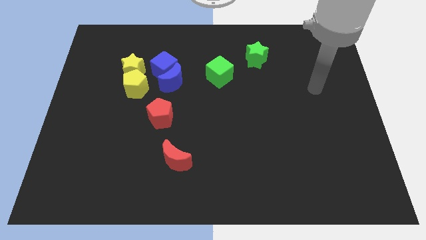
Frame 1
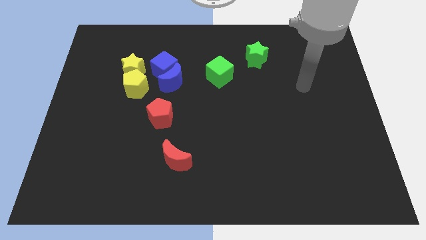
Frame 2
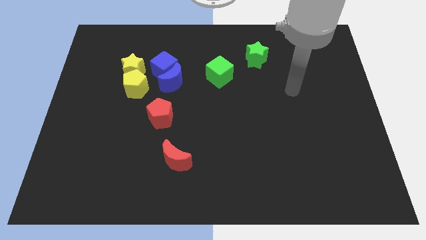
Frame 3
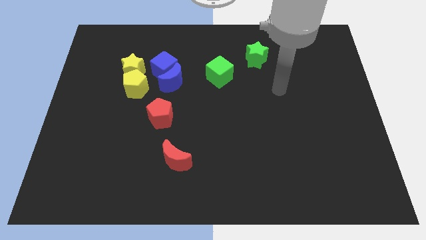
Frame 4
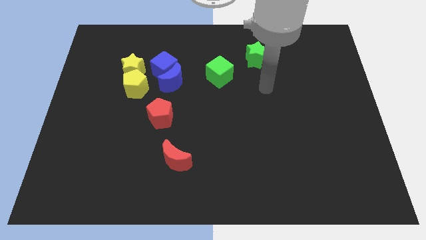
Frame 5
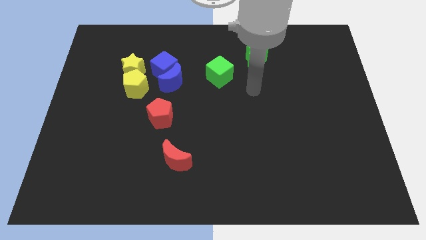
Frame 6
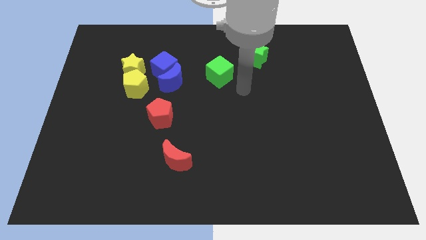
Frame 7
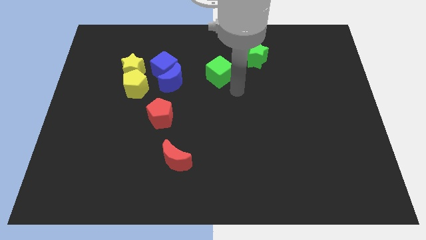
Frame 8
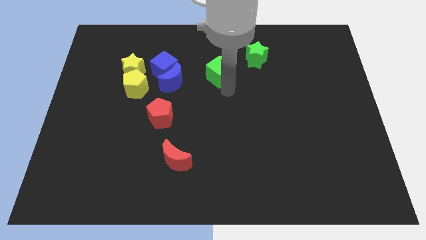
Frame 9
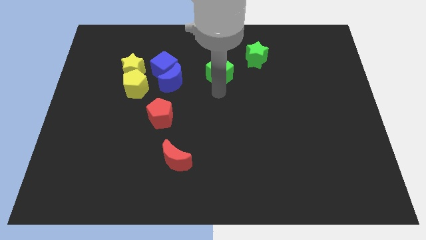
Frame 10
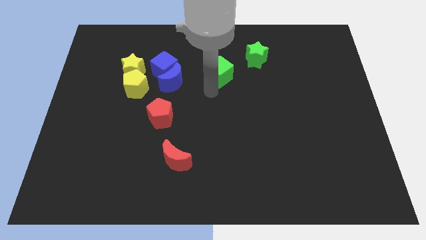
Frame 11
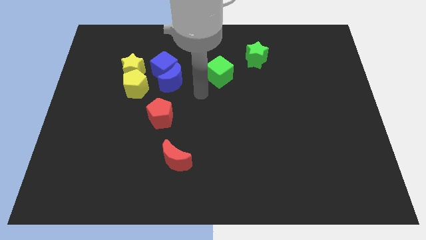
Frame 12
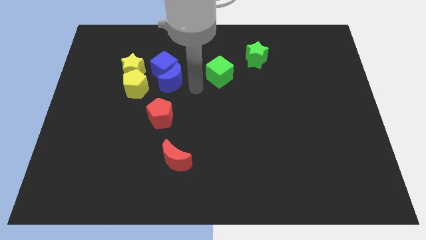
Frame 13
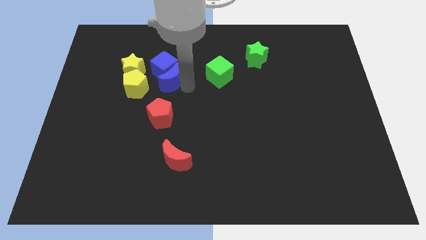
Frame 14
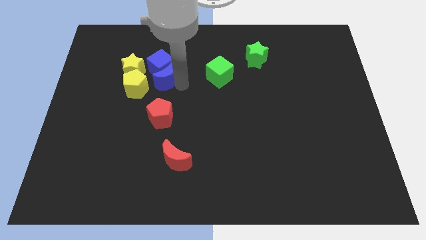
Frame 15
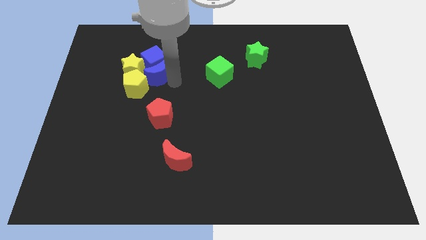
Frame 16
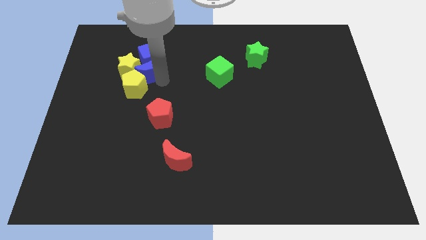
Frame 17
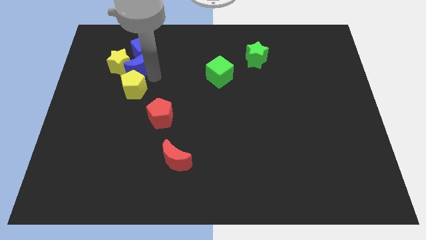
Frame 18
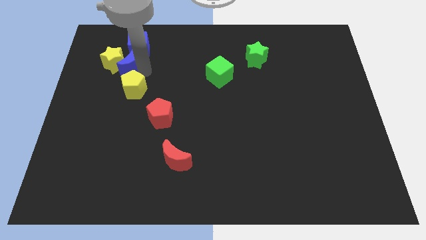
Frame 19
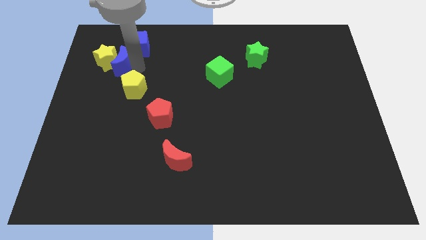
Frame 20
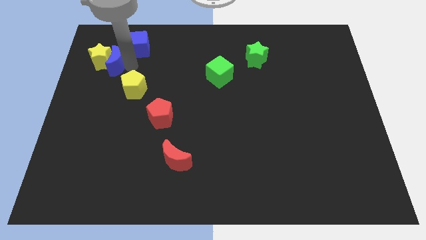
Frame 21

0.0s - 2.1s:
separate the yellow star from the yellow pentagon and blue cube

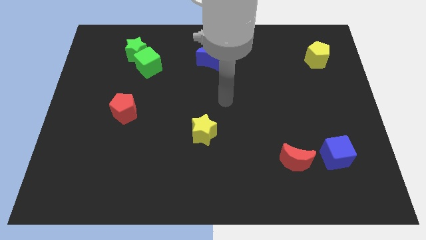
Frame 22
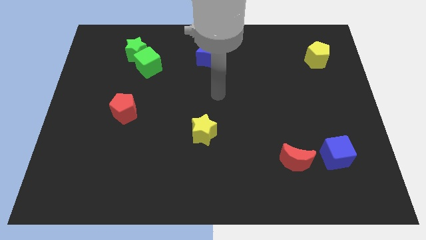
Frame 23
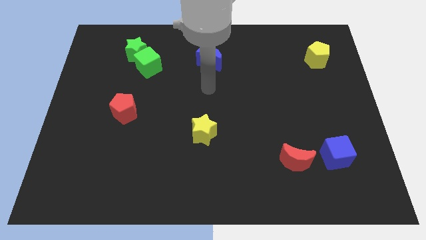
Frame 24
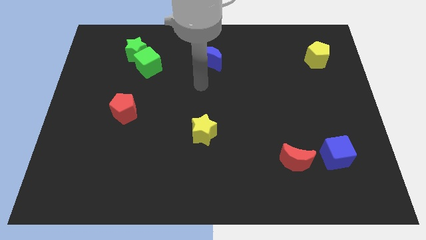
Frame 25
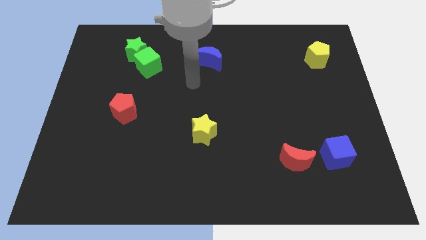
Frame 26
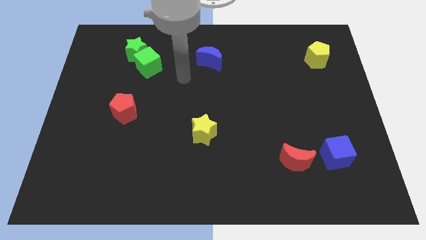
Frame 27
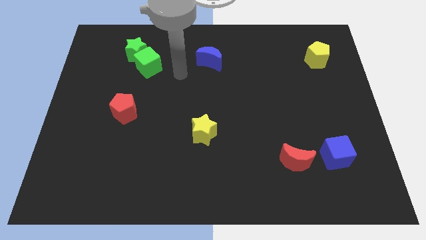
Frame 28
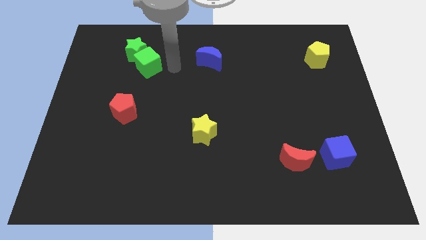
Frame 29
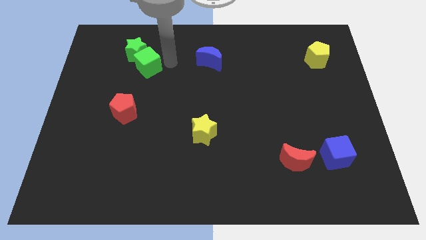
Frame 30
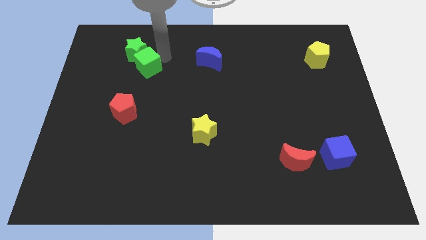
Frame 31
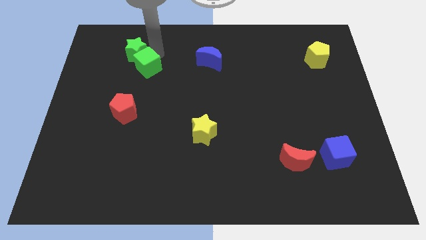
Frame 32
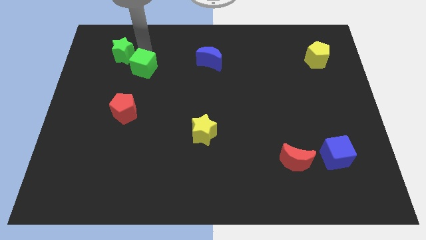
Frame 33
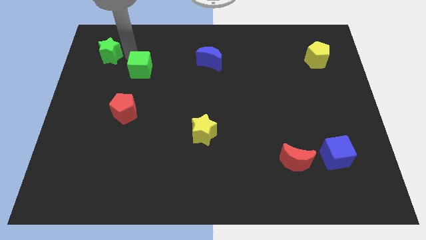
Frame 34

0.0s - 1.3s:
move the green cube away from the green star

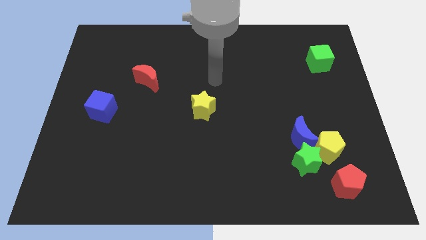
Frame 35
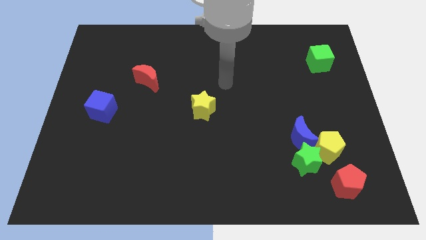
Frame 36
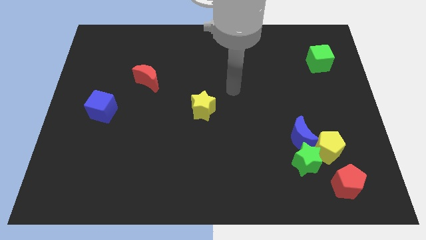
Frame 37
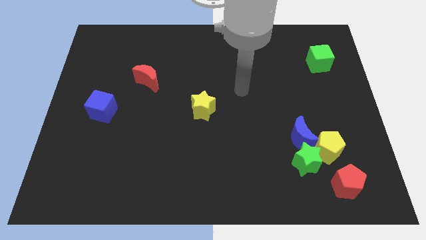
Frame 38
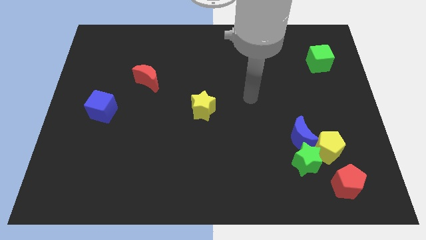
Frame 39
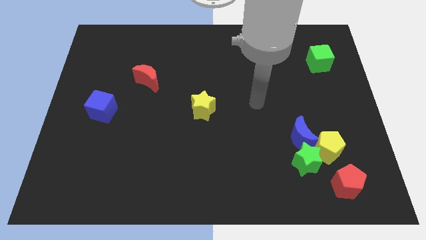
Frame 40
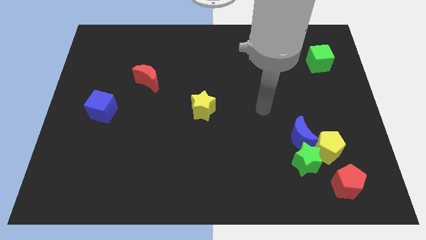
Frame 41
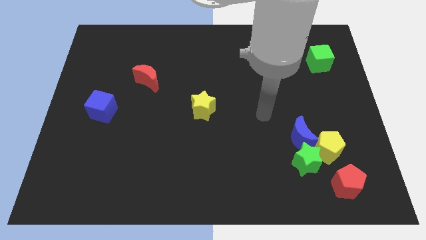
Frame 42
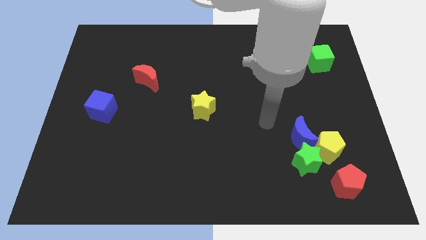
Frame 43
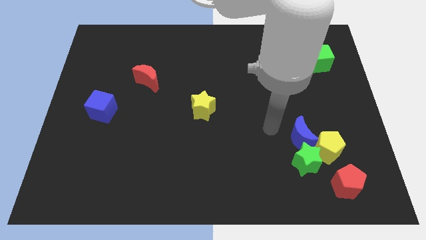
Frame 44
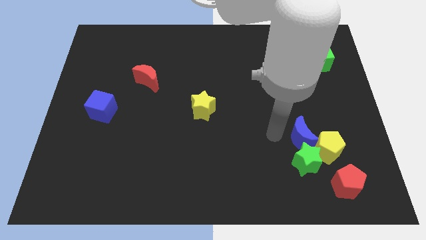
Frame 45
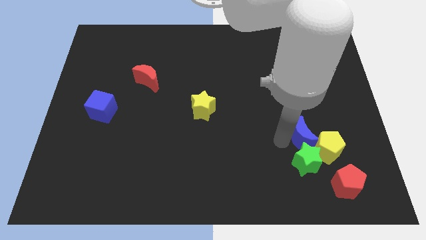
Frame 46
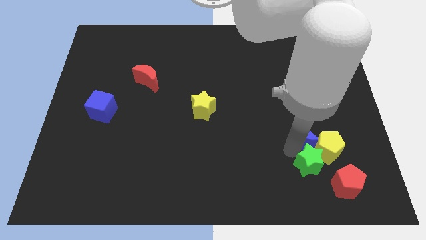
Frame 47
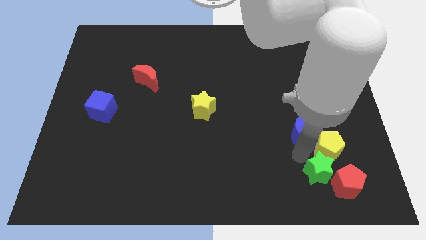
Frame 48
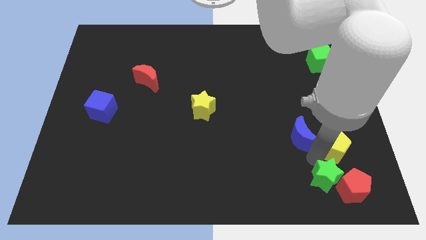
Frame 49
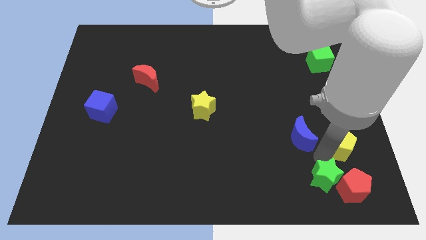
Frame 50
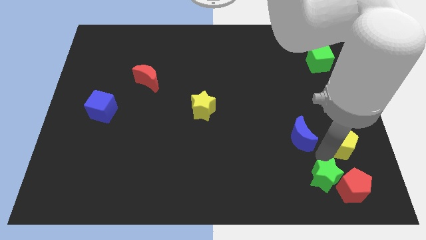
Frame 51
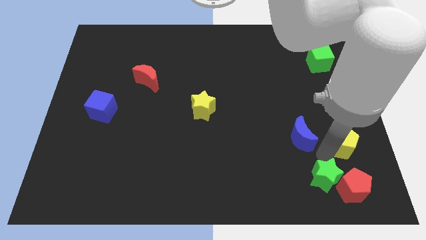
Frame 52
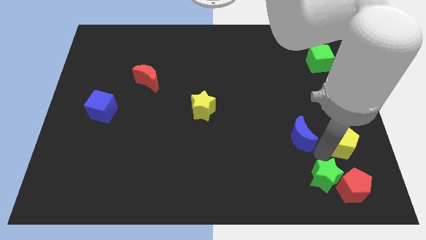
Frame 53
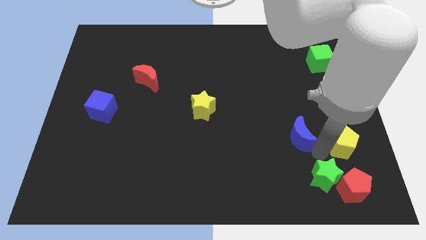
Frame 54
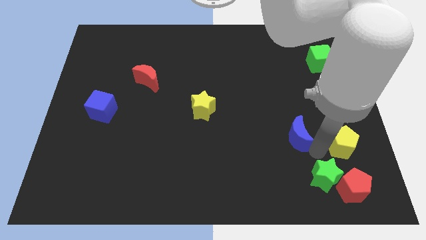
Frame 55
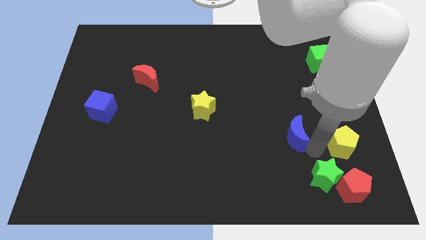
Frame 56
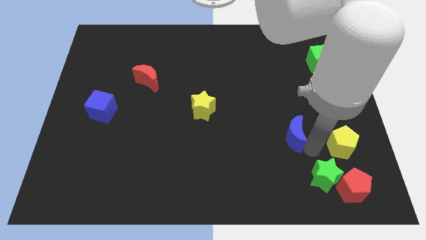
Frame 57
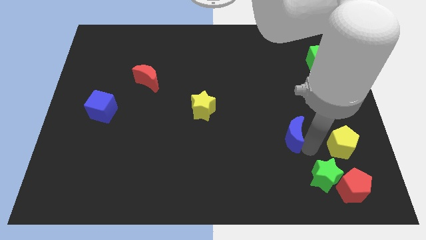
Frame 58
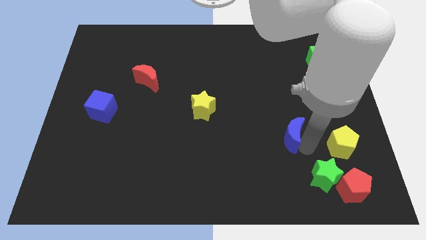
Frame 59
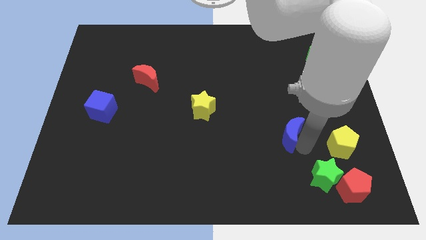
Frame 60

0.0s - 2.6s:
move the blue moon away from the yellow pentagon and green star

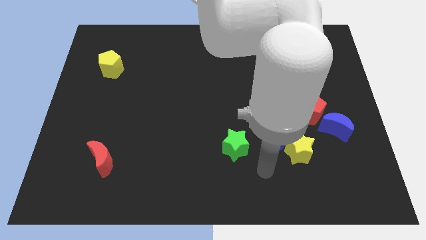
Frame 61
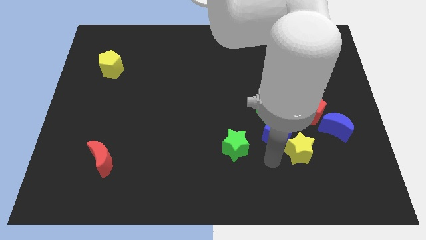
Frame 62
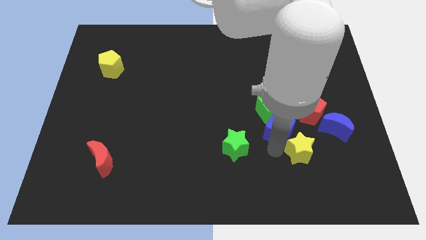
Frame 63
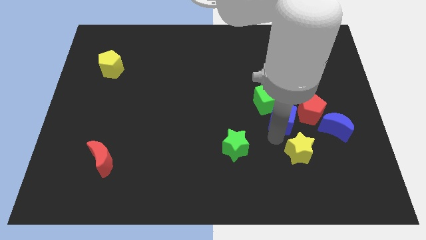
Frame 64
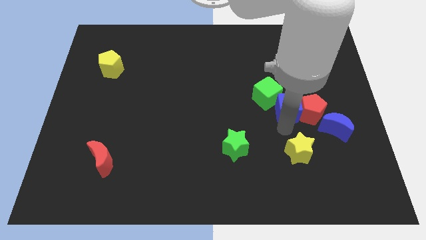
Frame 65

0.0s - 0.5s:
move the yellow star away from the blue cube

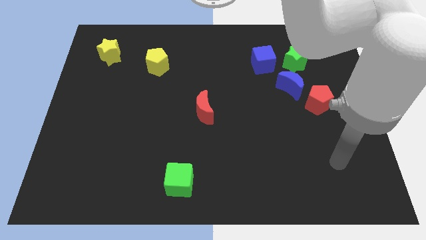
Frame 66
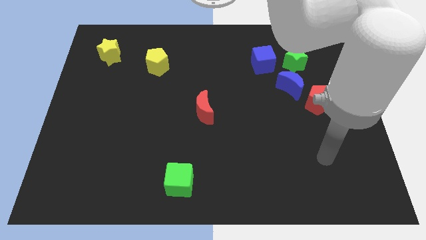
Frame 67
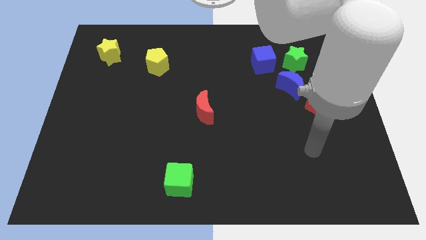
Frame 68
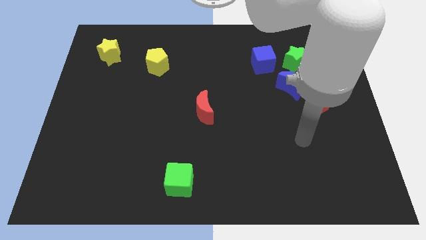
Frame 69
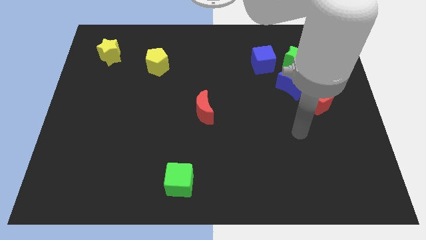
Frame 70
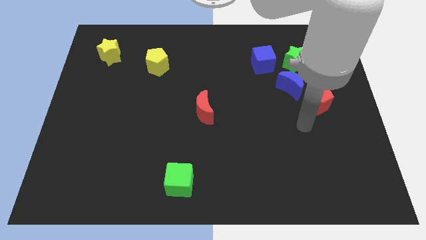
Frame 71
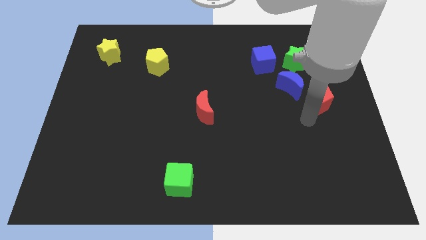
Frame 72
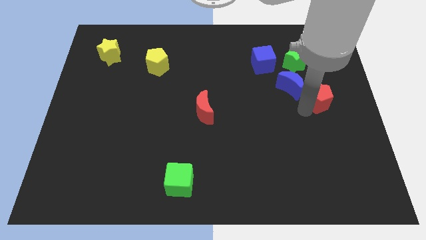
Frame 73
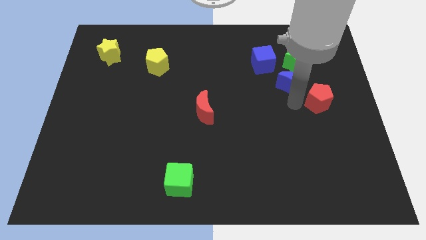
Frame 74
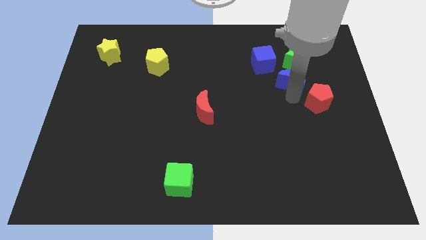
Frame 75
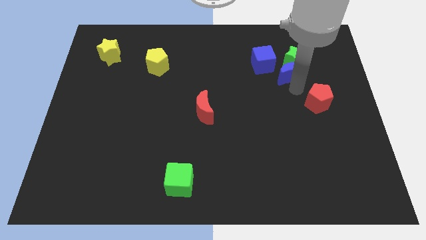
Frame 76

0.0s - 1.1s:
move the red pentagon away from the blue moon

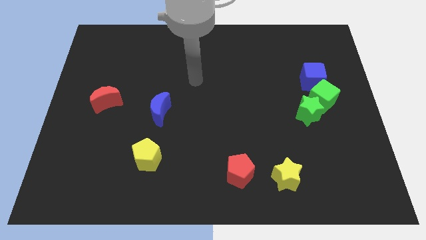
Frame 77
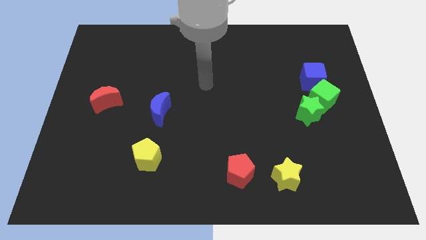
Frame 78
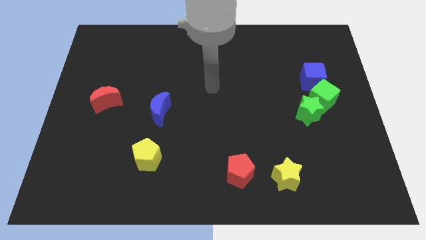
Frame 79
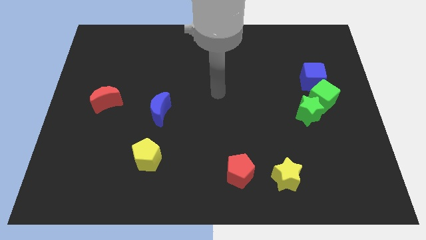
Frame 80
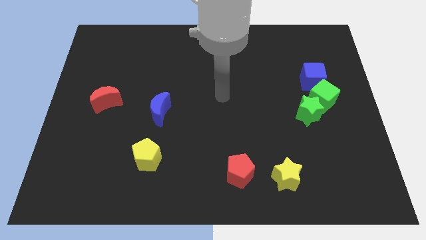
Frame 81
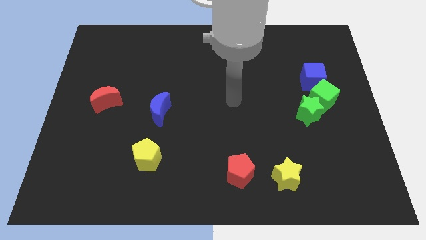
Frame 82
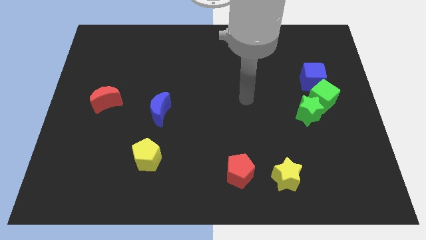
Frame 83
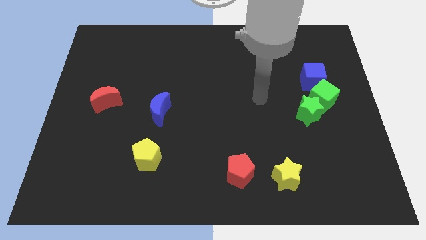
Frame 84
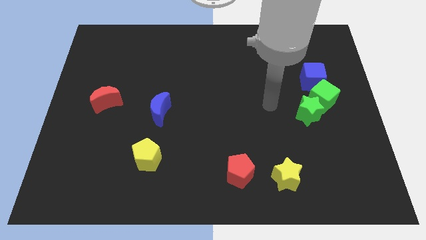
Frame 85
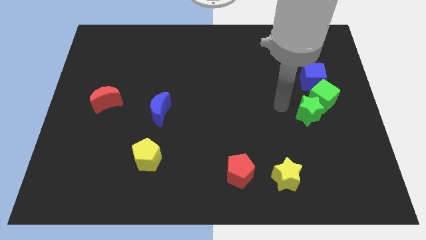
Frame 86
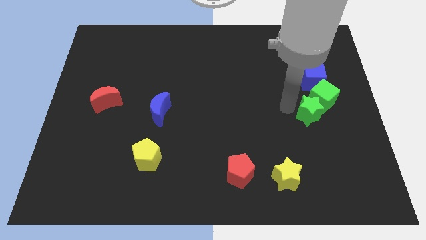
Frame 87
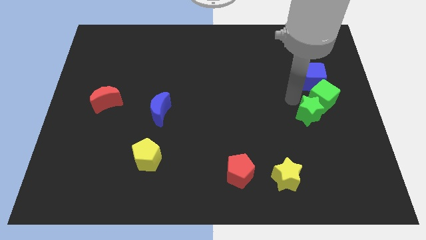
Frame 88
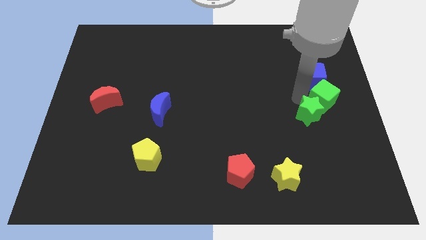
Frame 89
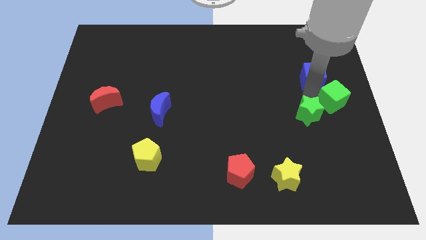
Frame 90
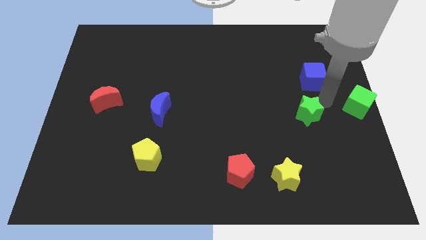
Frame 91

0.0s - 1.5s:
separate the green star from the green cube

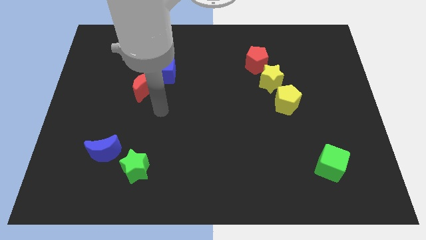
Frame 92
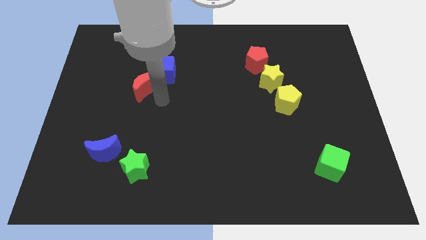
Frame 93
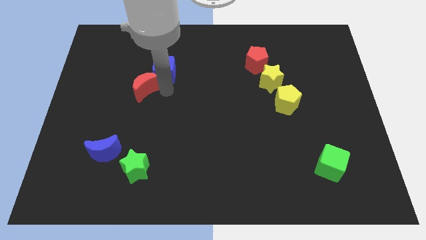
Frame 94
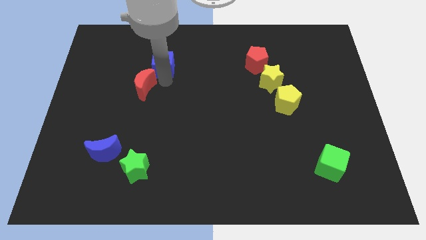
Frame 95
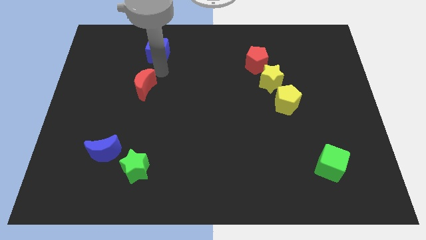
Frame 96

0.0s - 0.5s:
separate the red moon from the blue cube
